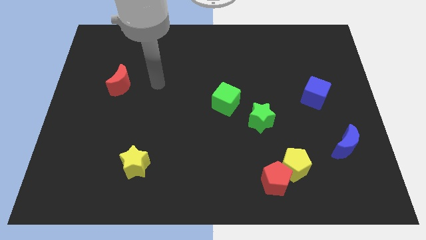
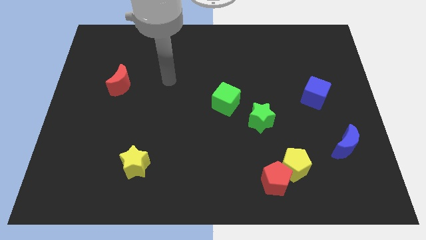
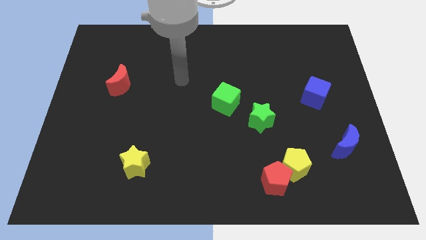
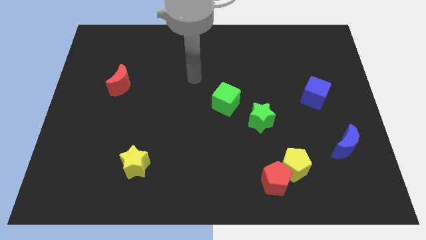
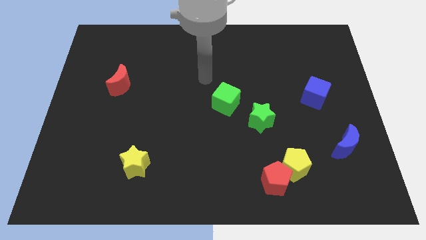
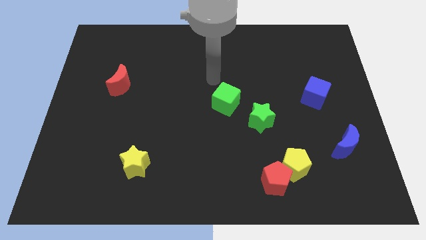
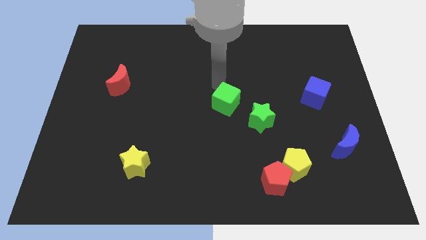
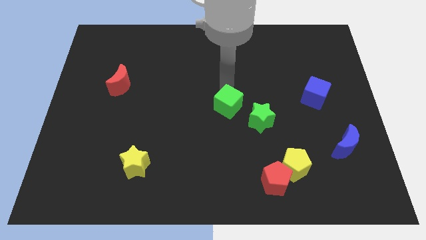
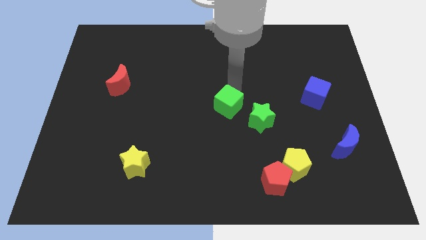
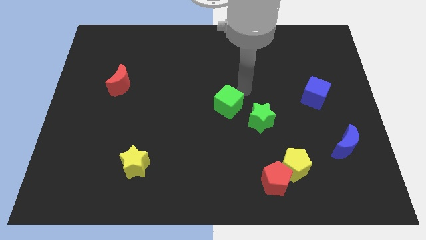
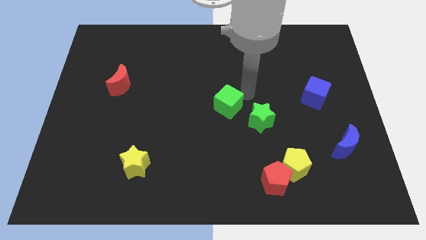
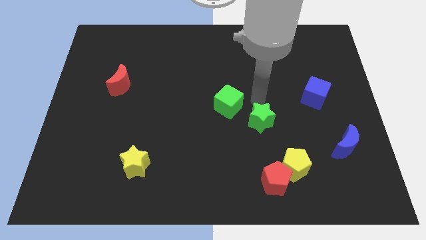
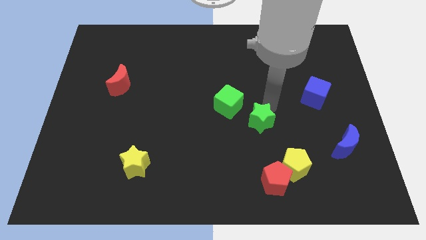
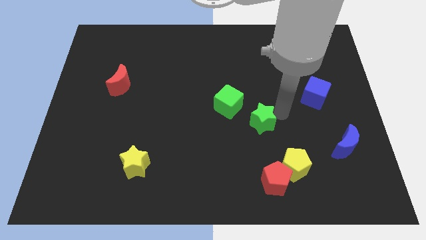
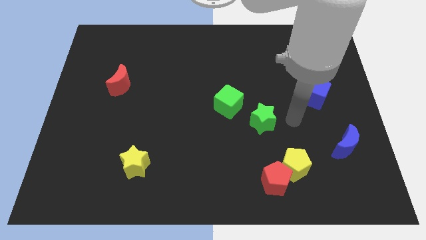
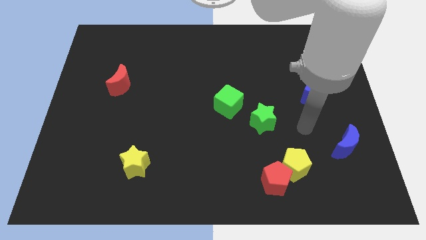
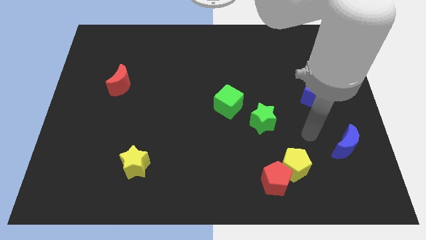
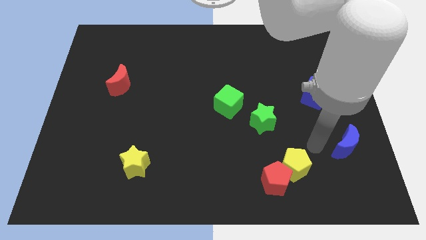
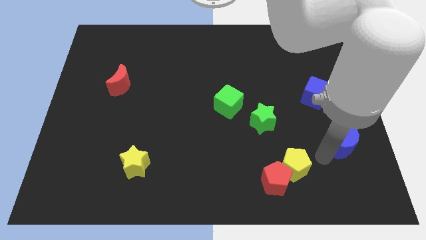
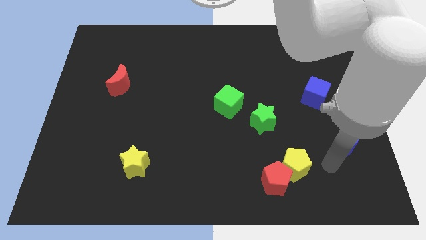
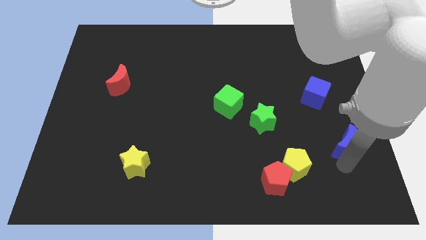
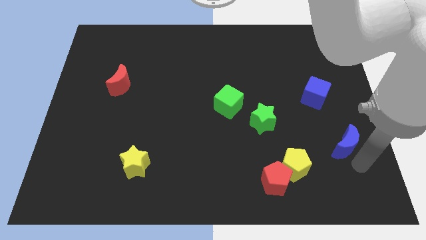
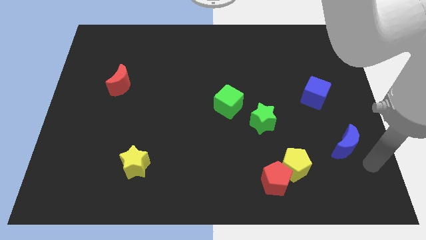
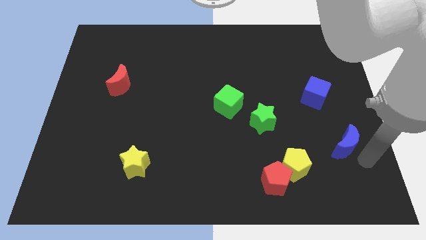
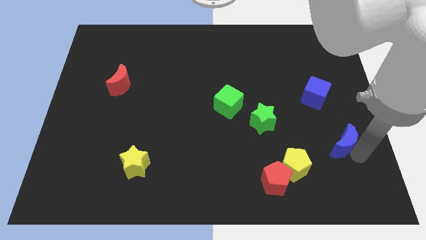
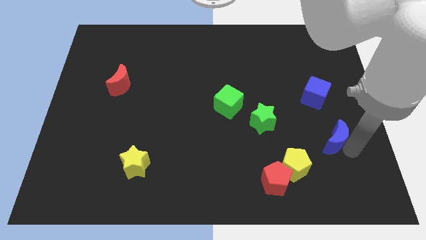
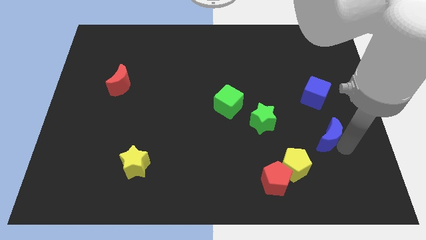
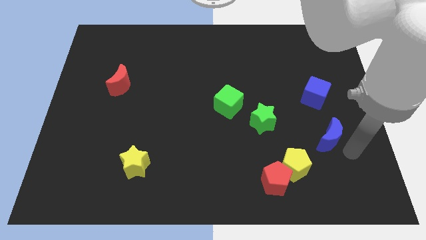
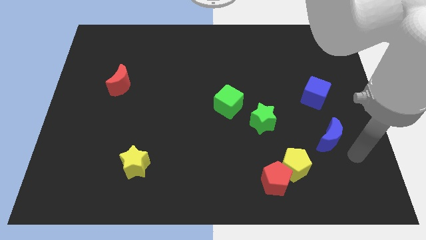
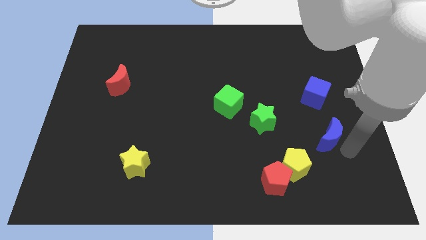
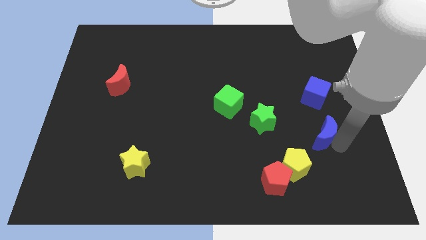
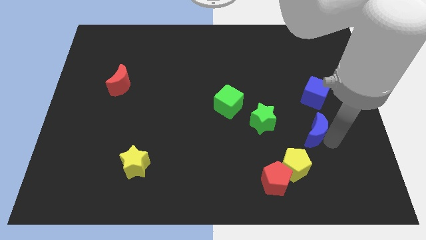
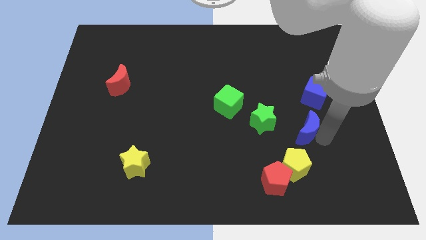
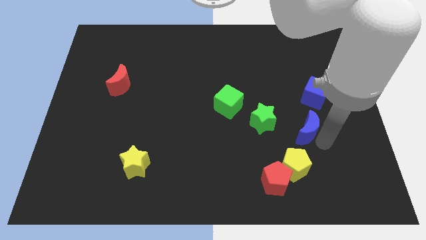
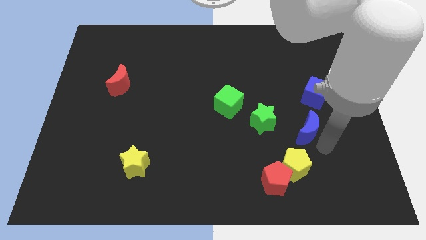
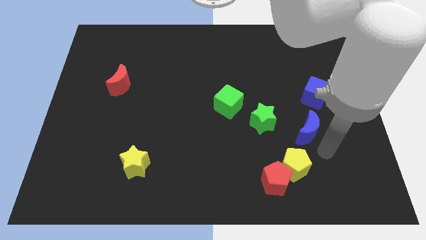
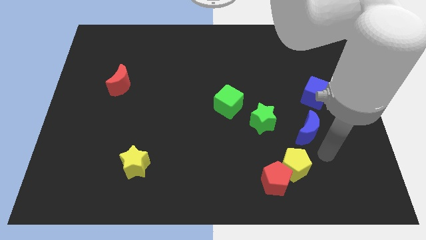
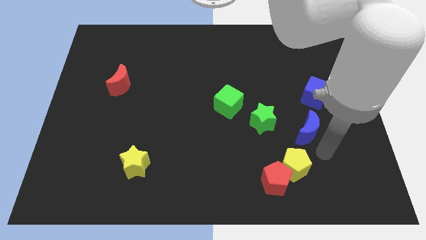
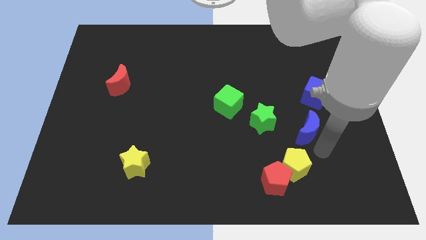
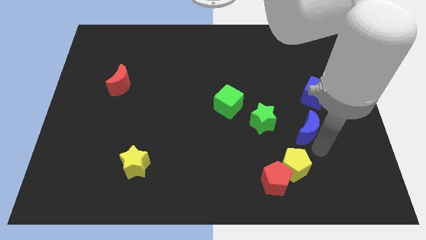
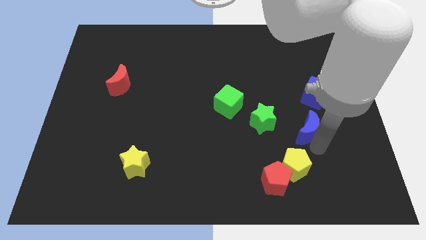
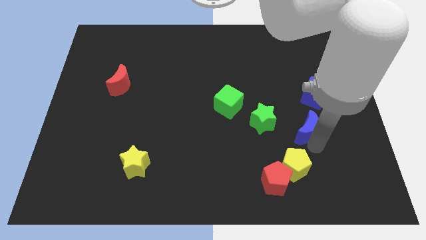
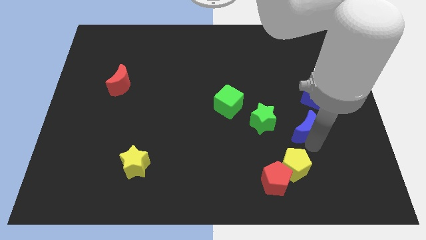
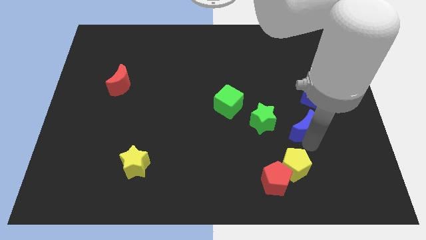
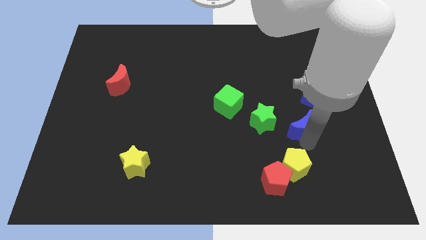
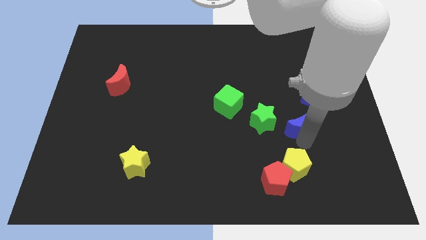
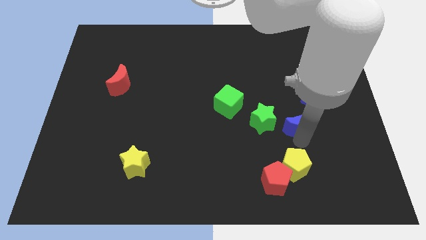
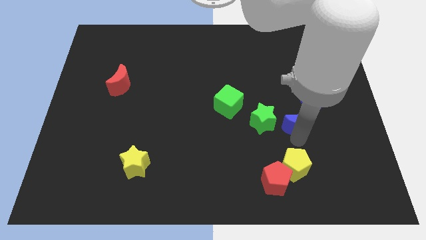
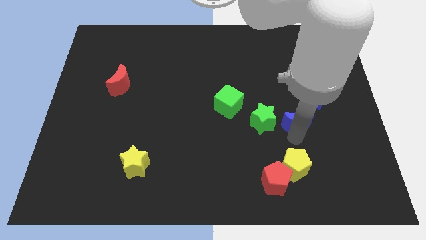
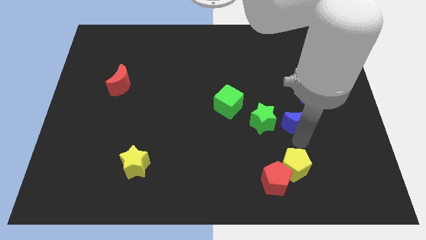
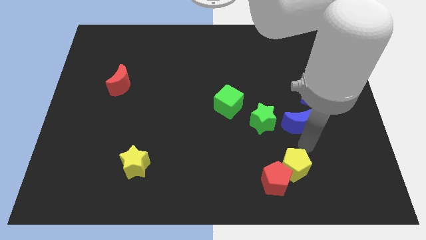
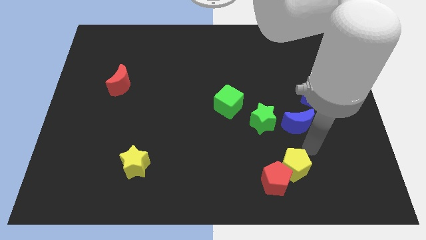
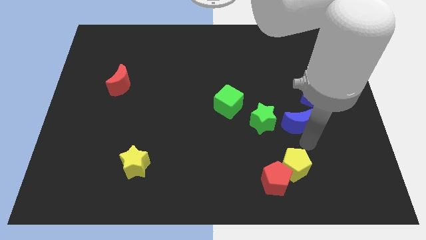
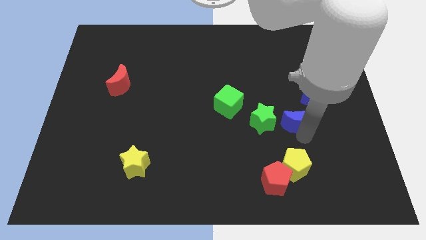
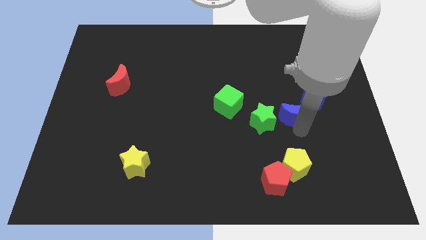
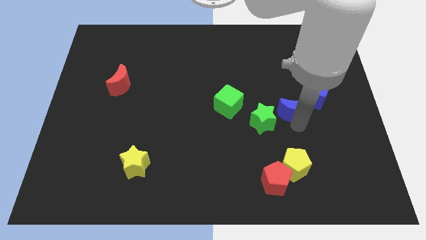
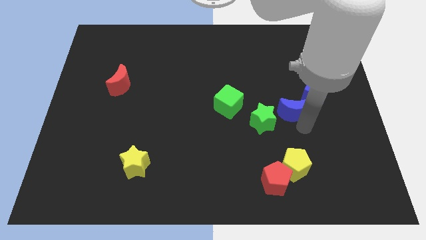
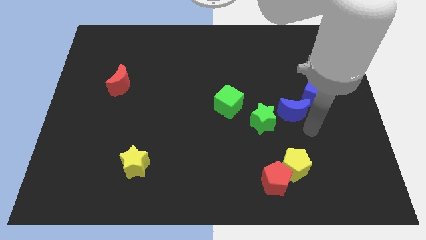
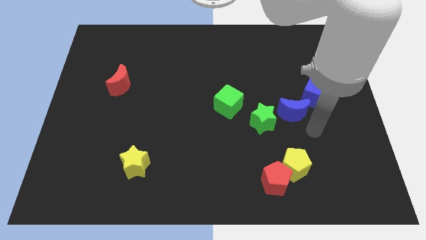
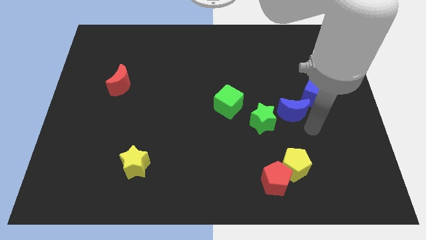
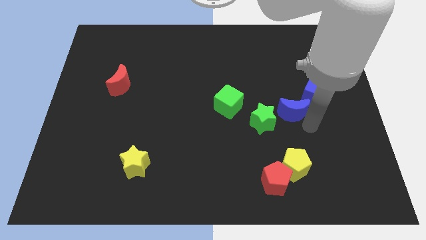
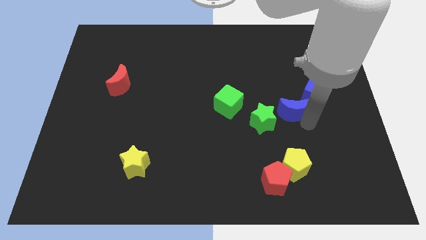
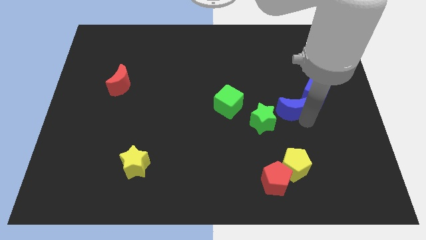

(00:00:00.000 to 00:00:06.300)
move the blue moon to the left side of the blue cube

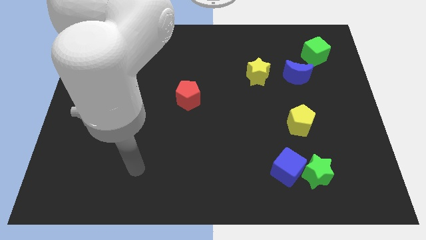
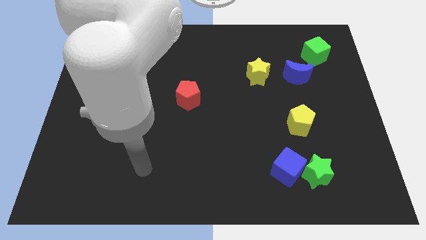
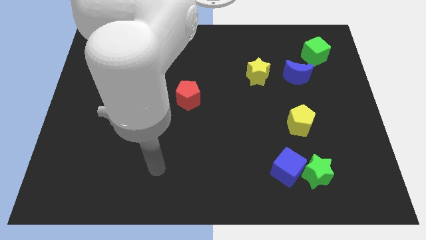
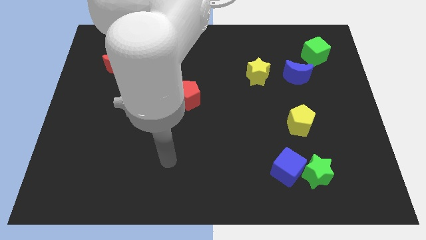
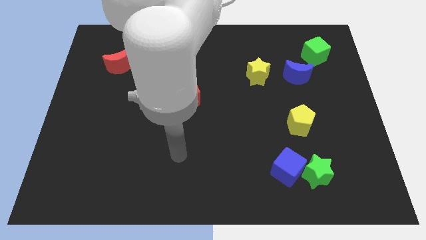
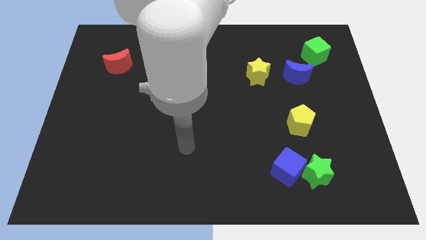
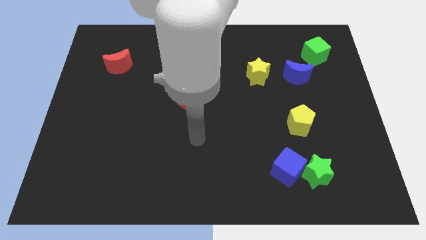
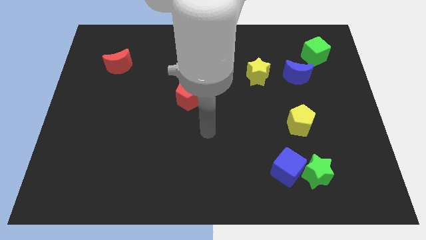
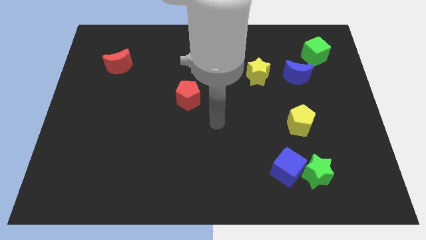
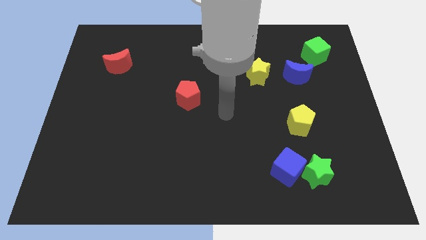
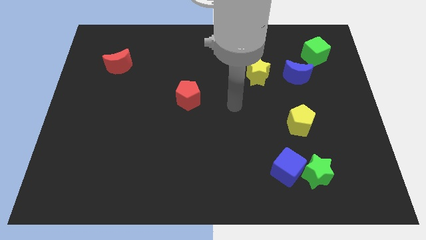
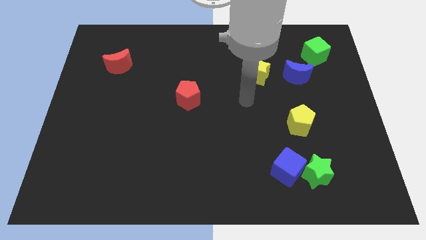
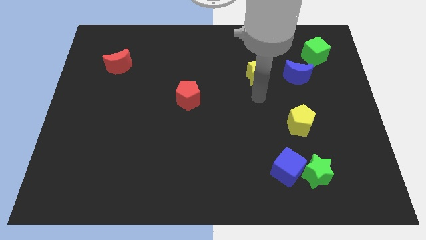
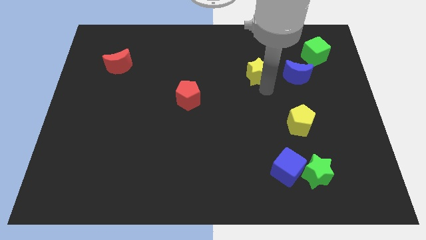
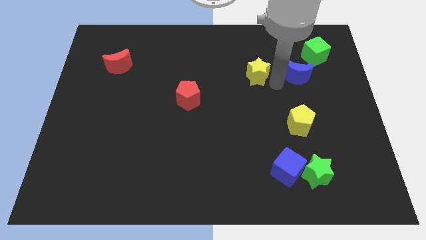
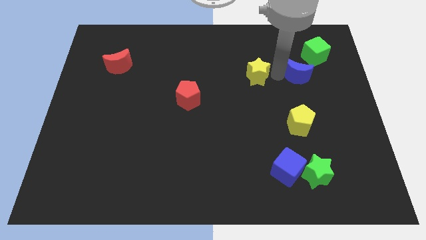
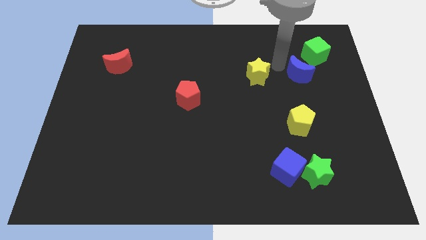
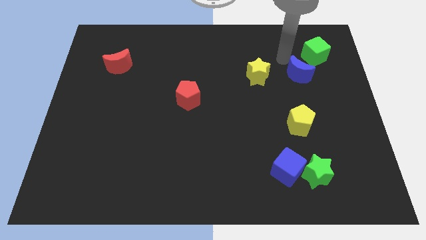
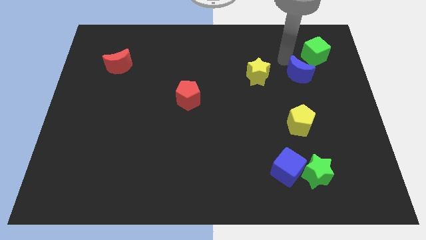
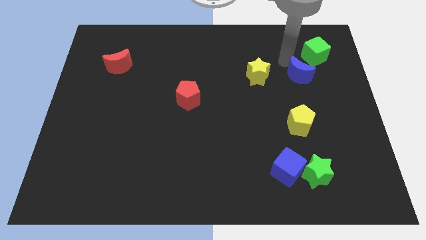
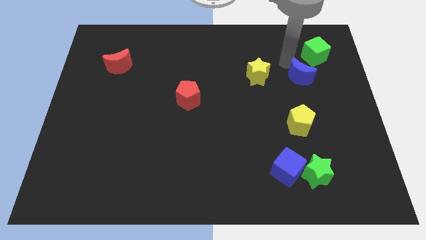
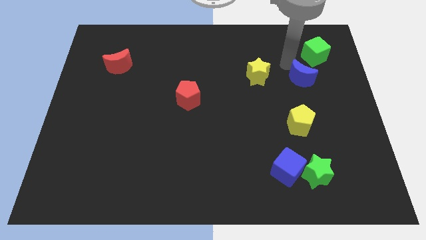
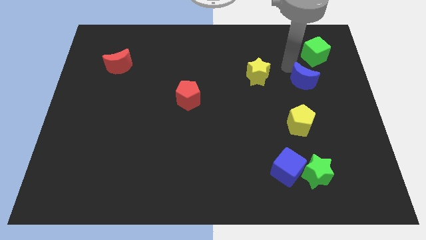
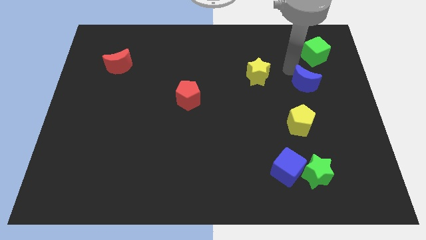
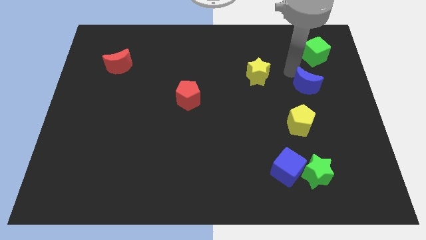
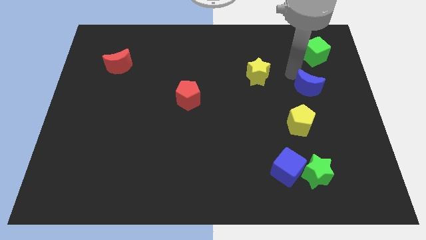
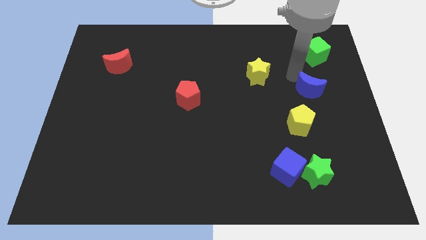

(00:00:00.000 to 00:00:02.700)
slide the blue moon to the top right of the yellow pentagon
